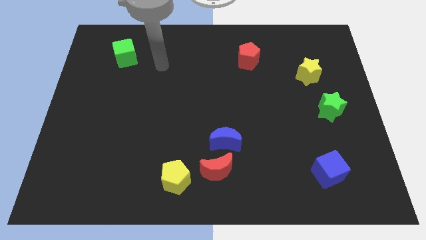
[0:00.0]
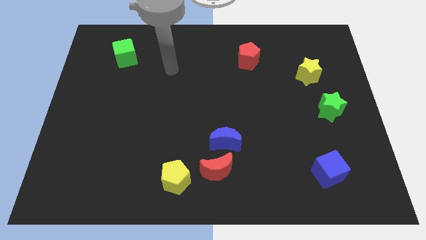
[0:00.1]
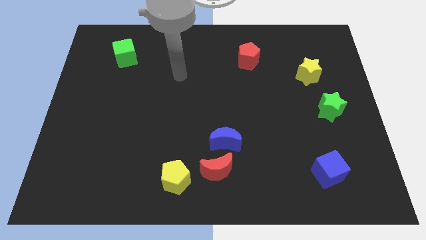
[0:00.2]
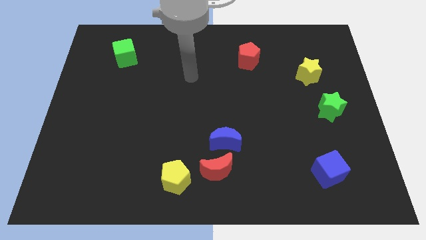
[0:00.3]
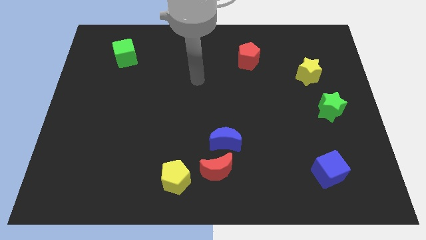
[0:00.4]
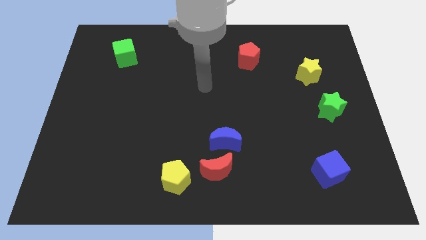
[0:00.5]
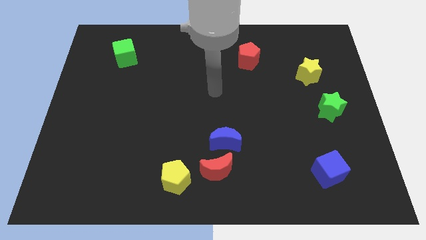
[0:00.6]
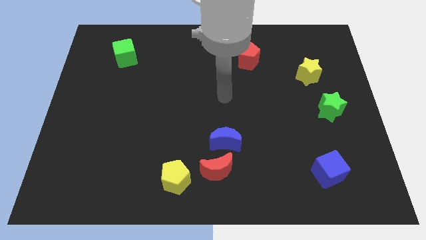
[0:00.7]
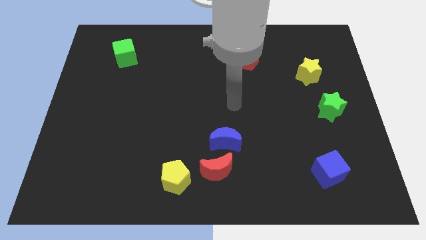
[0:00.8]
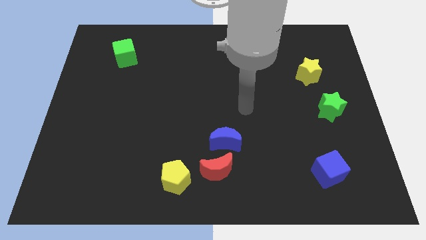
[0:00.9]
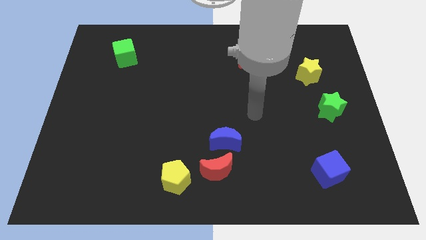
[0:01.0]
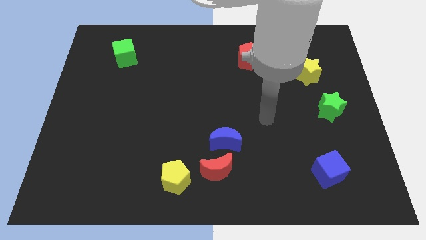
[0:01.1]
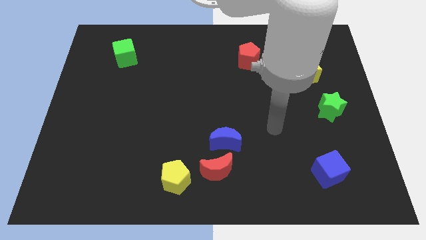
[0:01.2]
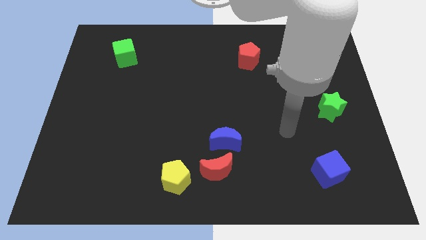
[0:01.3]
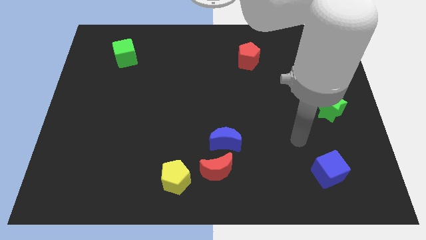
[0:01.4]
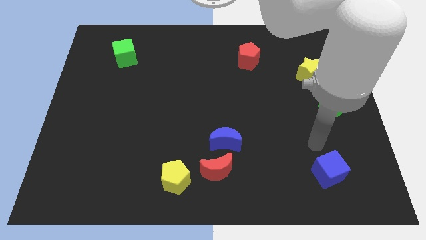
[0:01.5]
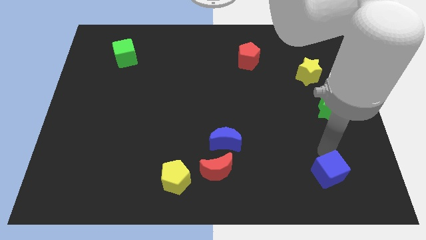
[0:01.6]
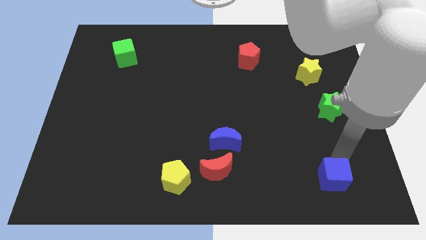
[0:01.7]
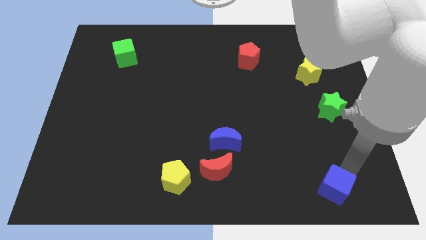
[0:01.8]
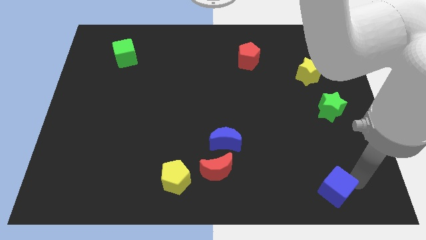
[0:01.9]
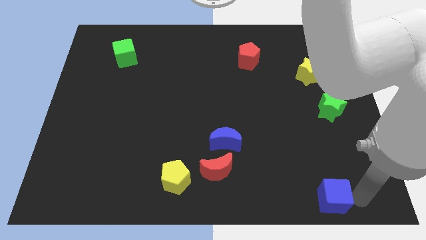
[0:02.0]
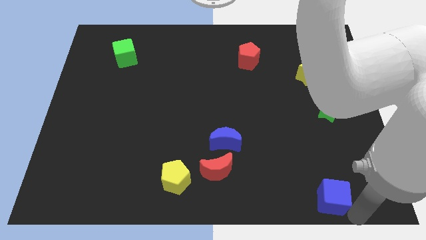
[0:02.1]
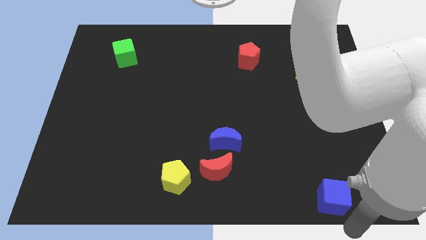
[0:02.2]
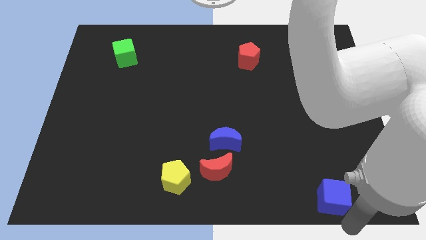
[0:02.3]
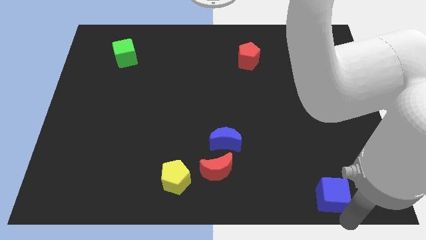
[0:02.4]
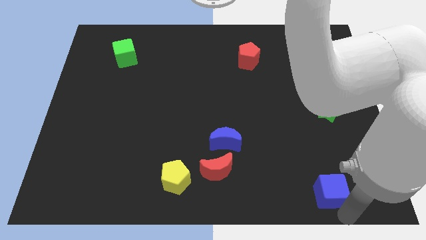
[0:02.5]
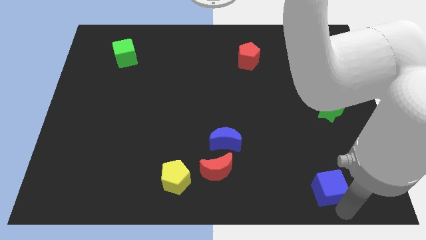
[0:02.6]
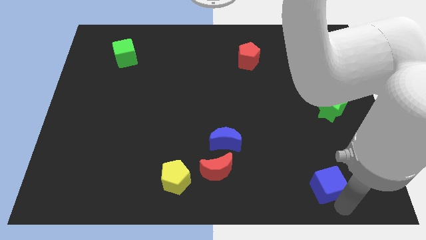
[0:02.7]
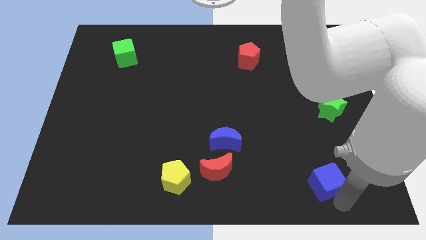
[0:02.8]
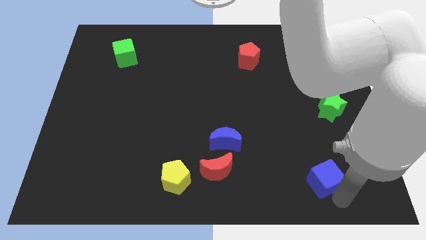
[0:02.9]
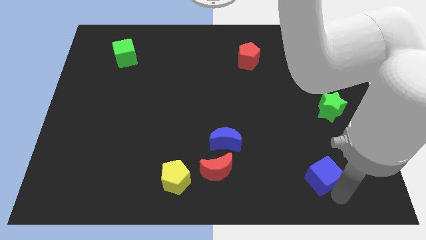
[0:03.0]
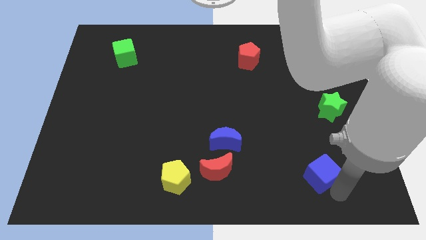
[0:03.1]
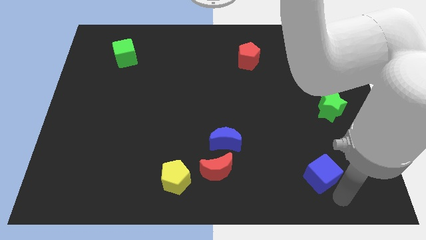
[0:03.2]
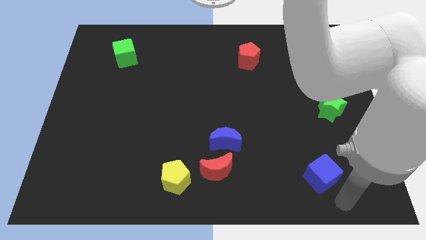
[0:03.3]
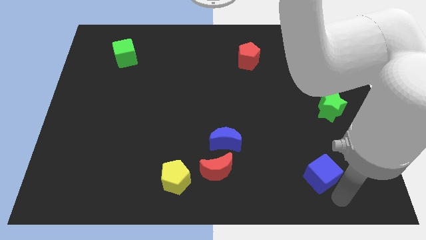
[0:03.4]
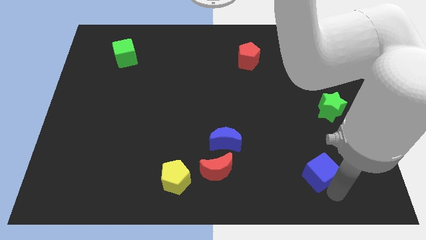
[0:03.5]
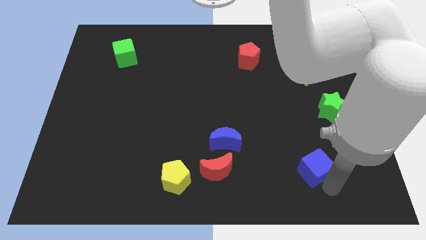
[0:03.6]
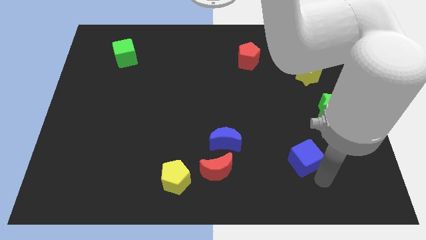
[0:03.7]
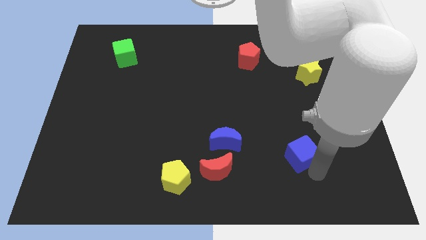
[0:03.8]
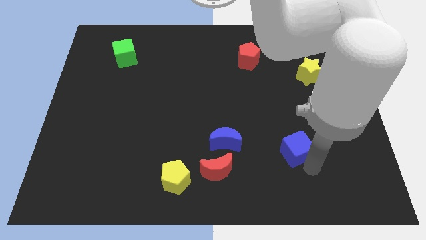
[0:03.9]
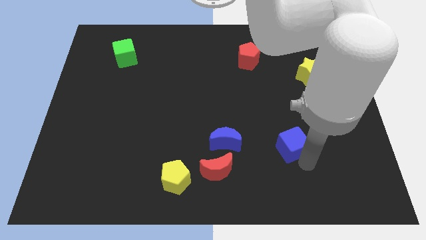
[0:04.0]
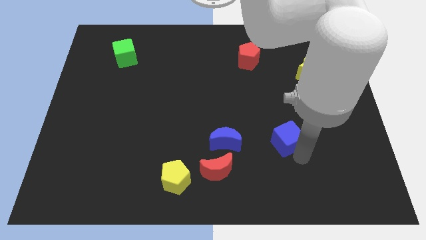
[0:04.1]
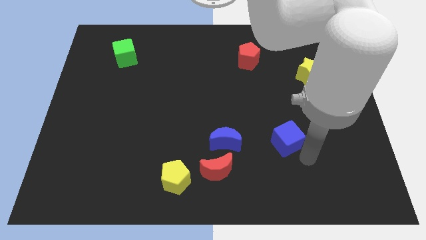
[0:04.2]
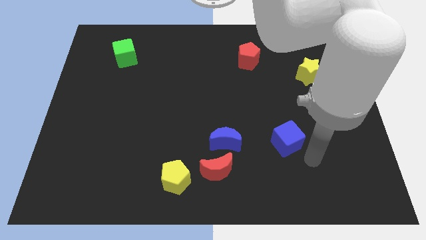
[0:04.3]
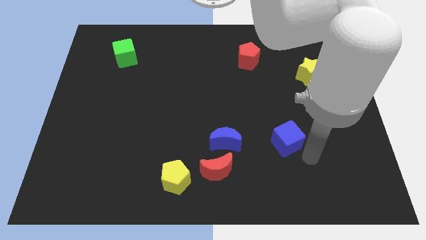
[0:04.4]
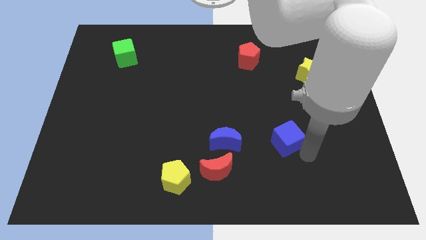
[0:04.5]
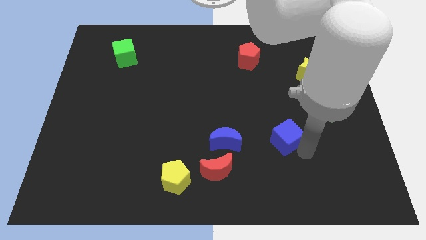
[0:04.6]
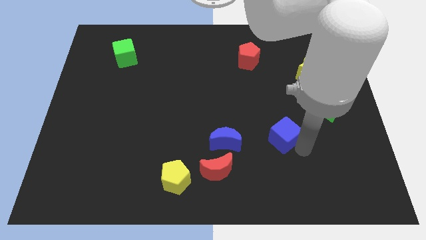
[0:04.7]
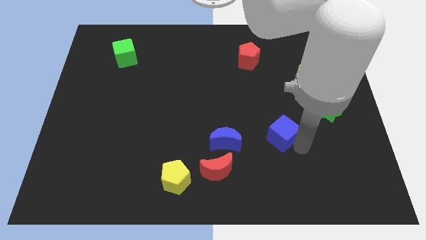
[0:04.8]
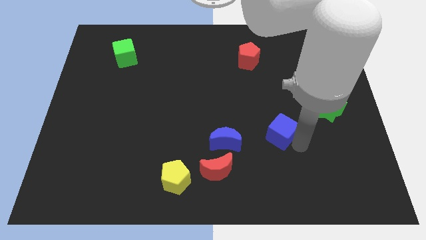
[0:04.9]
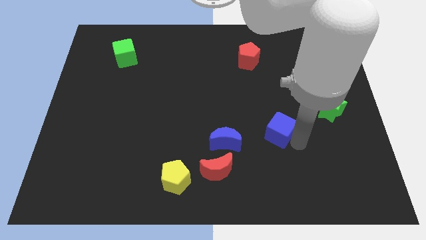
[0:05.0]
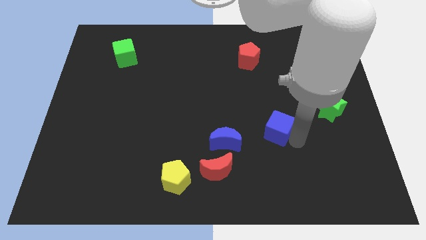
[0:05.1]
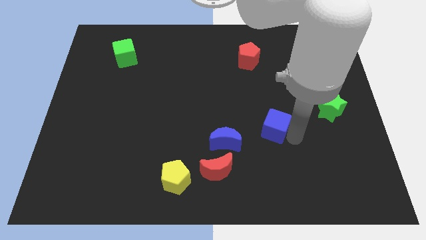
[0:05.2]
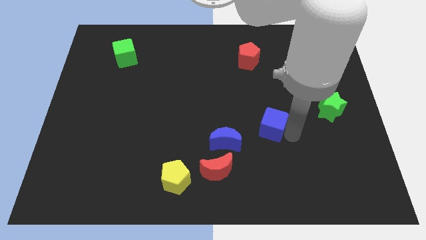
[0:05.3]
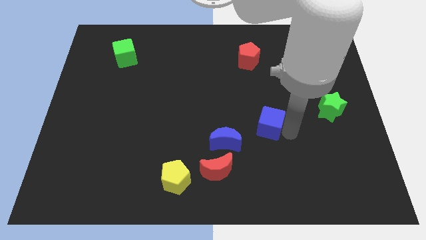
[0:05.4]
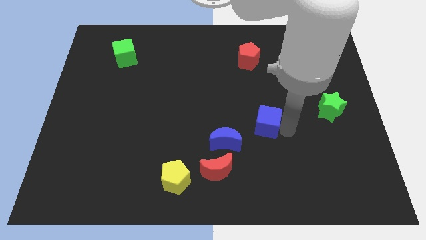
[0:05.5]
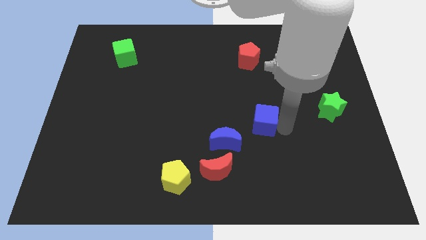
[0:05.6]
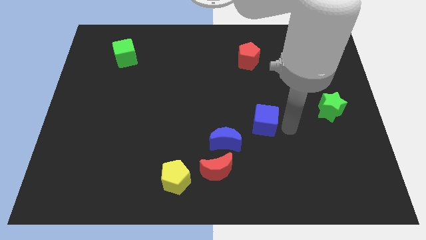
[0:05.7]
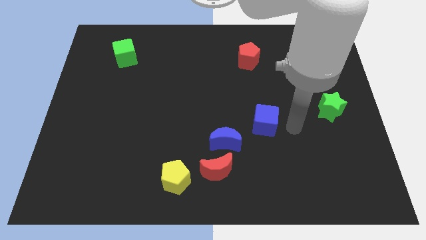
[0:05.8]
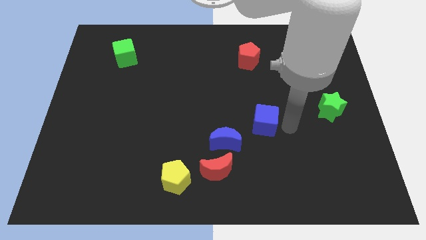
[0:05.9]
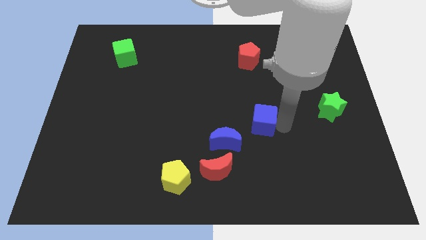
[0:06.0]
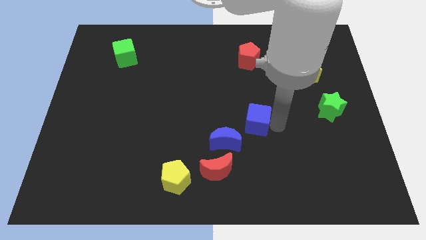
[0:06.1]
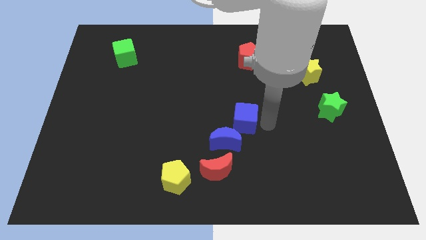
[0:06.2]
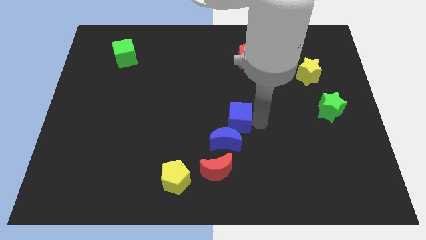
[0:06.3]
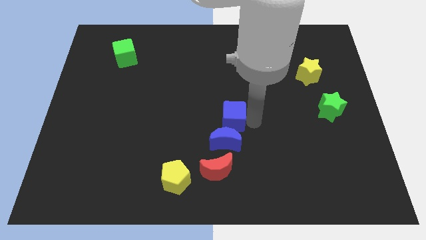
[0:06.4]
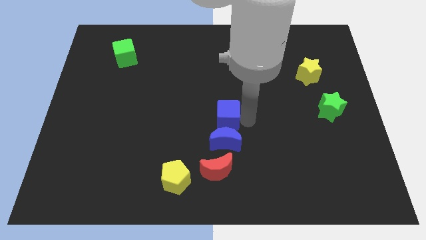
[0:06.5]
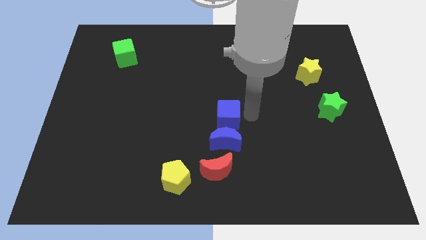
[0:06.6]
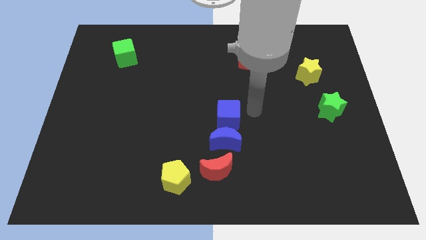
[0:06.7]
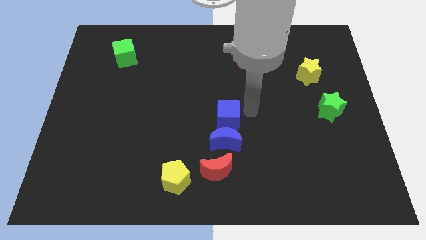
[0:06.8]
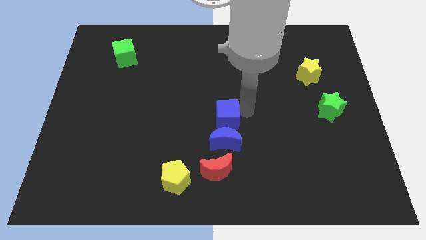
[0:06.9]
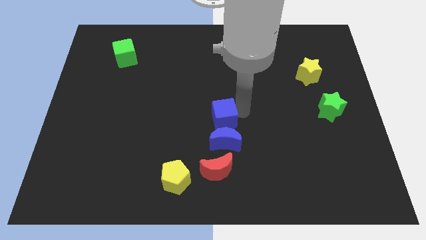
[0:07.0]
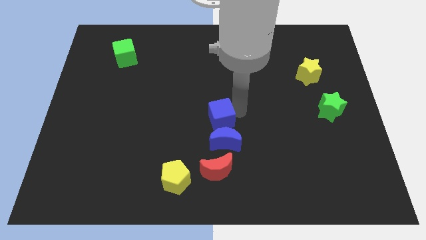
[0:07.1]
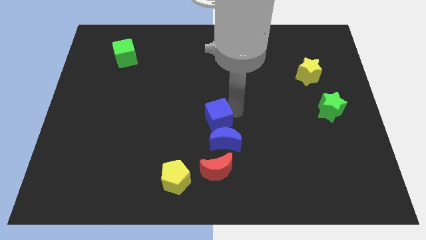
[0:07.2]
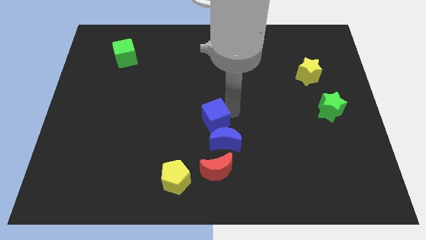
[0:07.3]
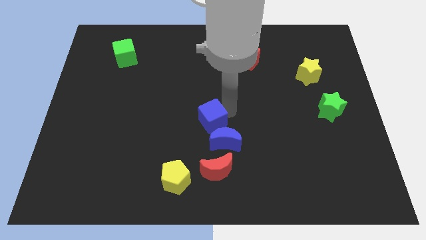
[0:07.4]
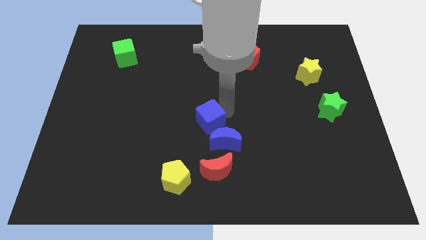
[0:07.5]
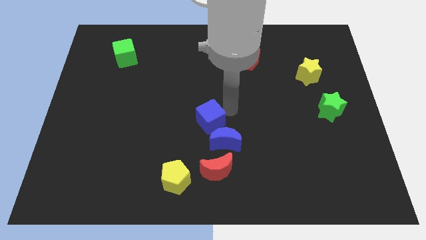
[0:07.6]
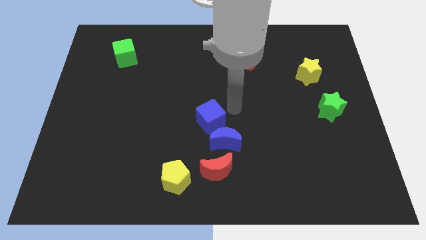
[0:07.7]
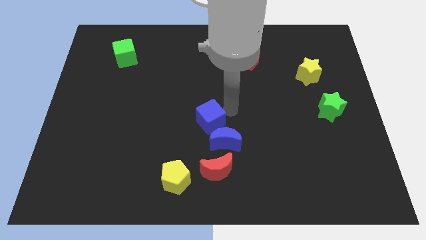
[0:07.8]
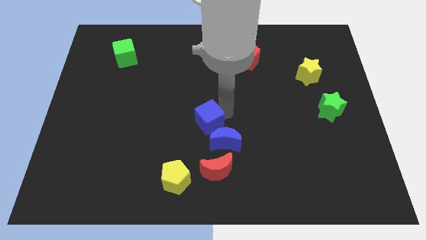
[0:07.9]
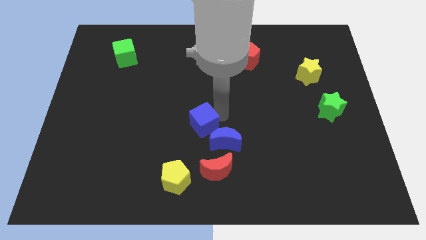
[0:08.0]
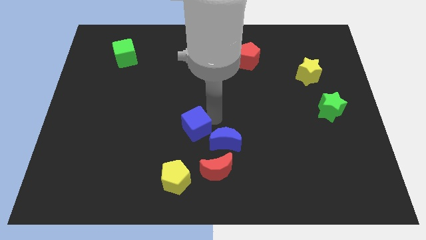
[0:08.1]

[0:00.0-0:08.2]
put the blue cube to the top of the yellow pentagon
